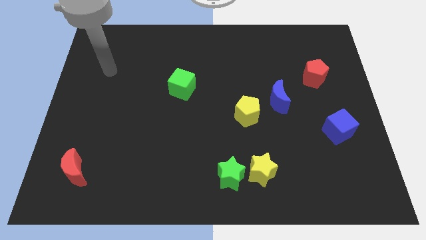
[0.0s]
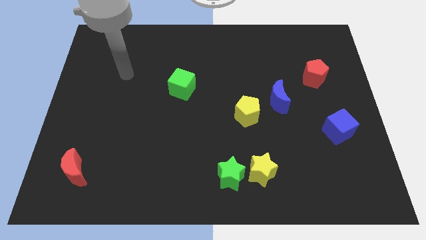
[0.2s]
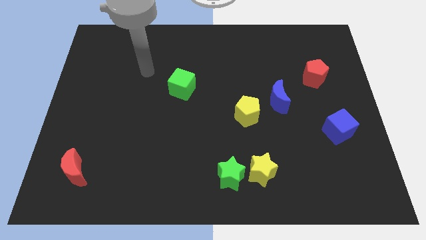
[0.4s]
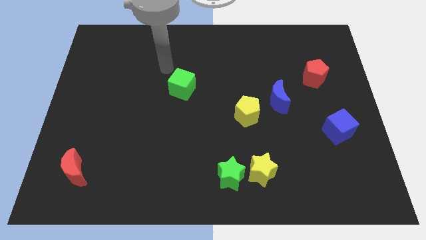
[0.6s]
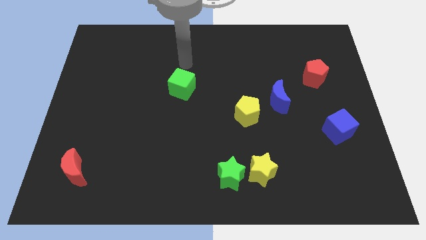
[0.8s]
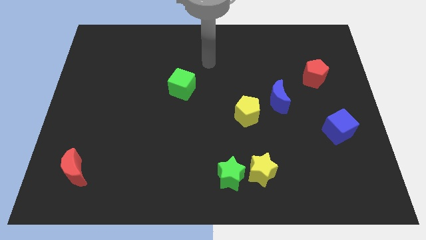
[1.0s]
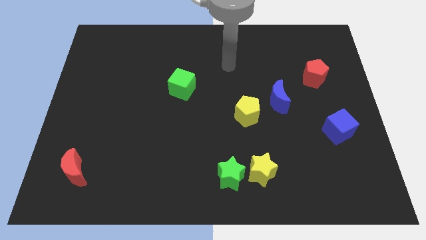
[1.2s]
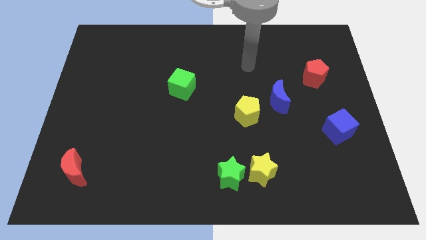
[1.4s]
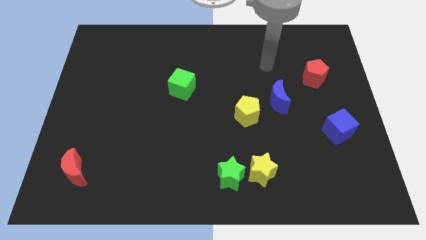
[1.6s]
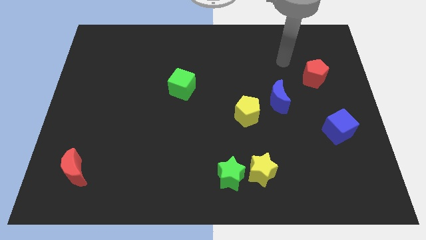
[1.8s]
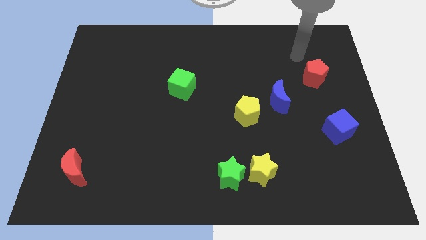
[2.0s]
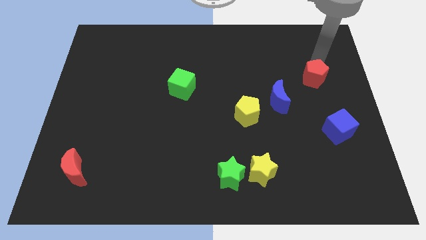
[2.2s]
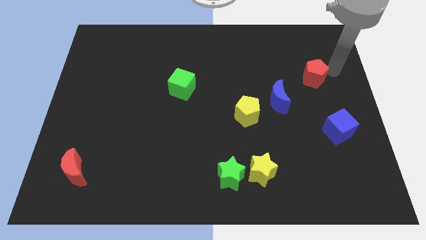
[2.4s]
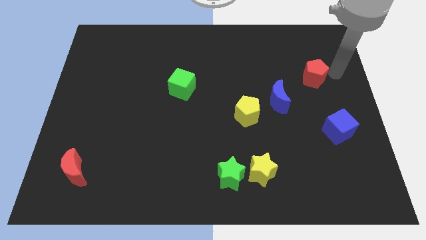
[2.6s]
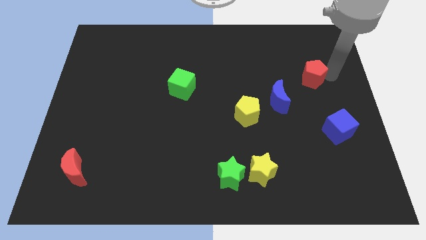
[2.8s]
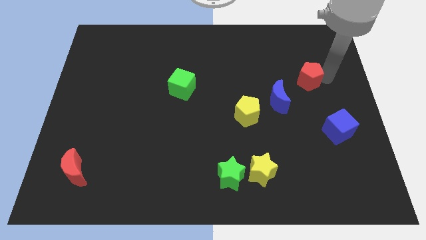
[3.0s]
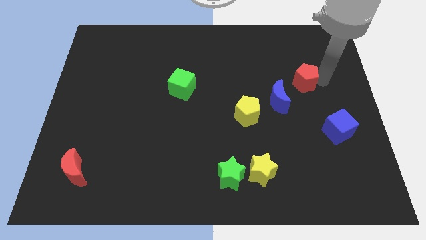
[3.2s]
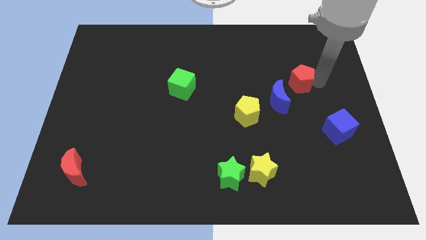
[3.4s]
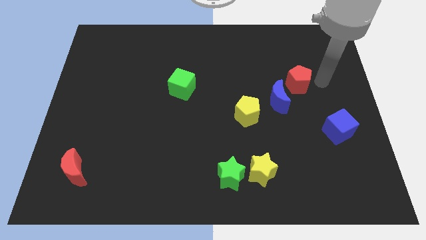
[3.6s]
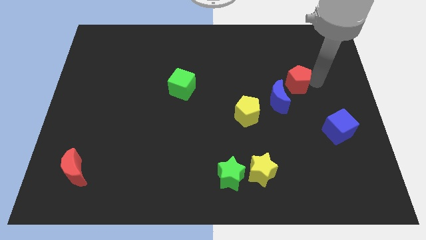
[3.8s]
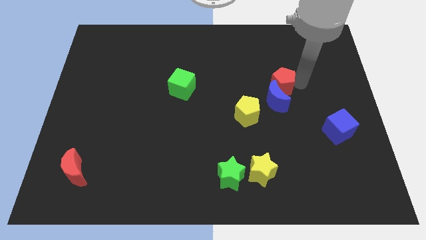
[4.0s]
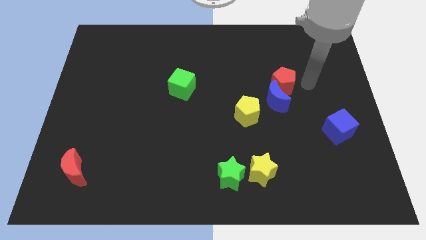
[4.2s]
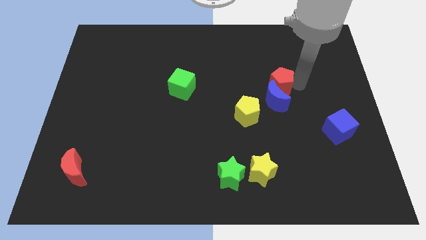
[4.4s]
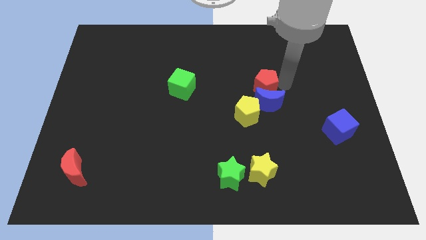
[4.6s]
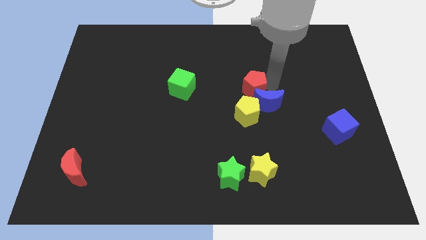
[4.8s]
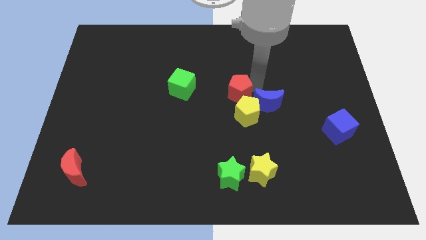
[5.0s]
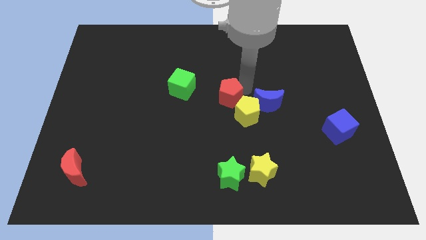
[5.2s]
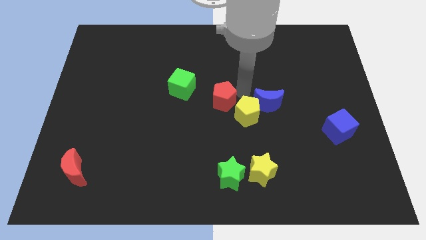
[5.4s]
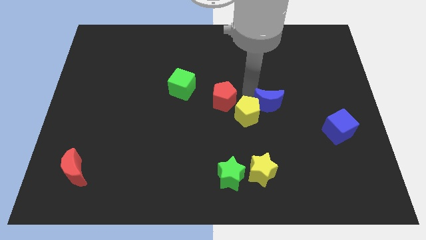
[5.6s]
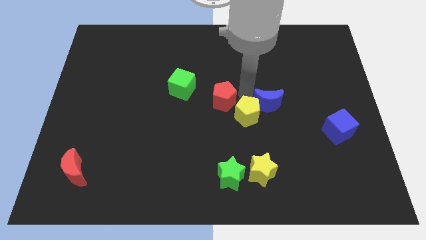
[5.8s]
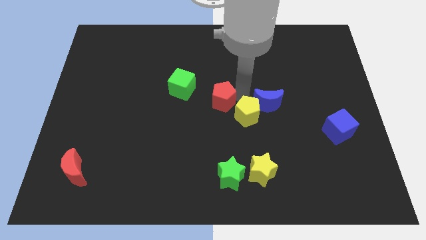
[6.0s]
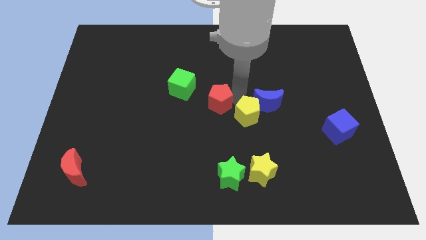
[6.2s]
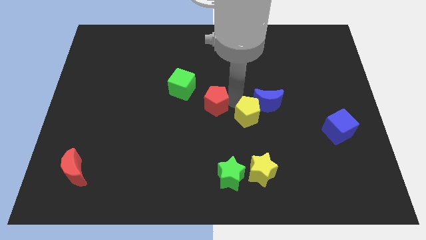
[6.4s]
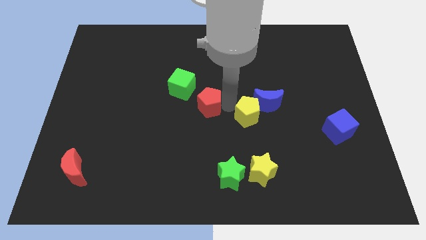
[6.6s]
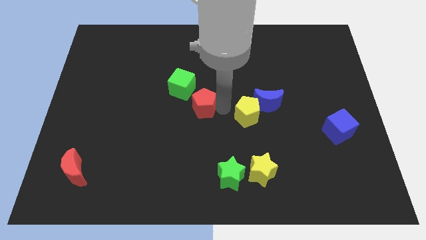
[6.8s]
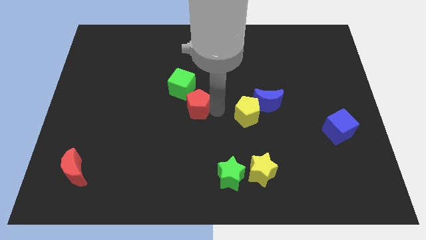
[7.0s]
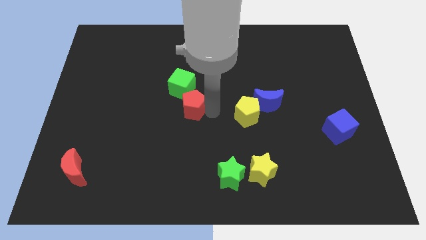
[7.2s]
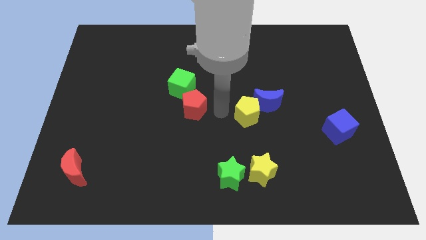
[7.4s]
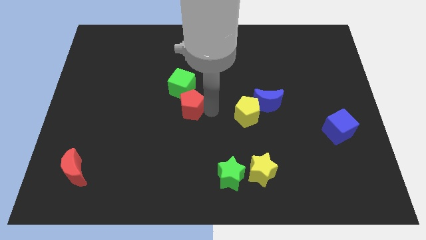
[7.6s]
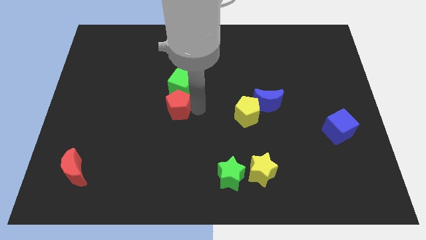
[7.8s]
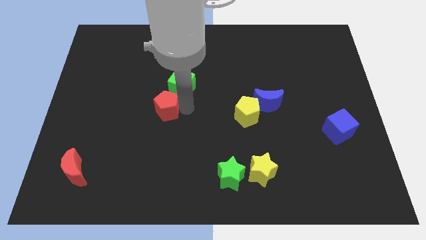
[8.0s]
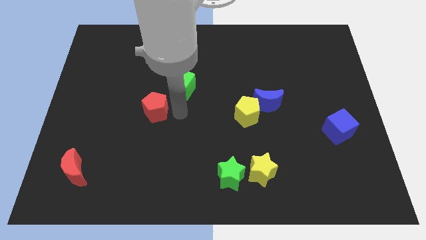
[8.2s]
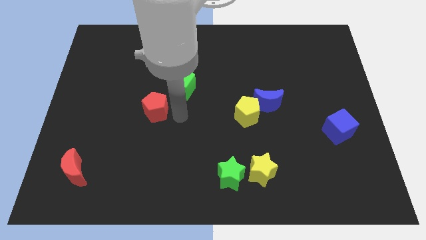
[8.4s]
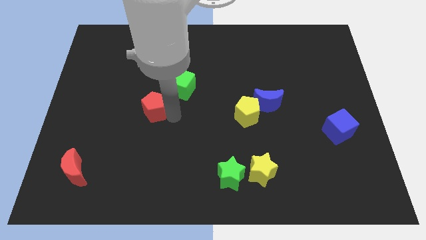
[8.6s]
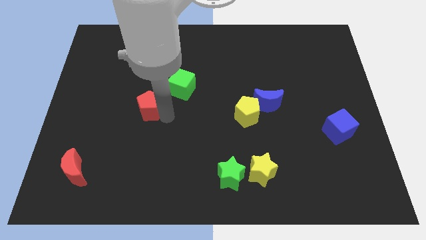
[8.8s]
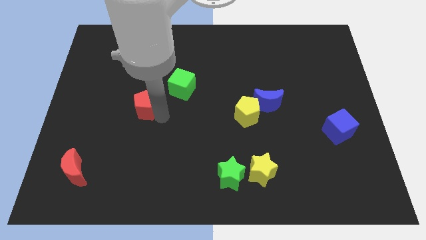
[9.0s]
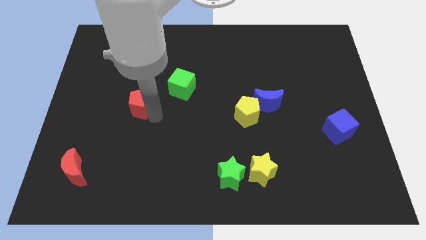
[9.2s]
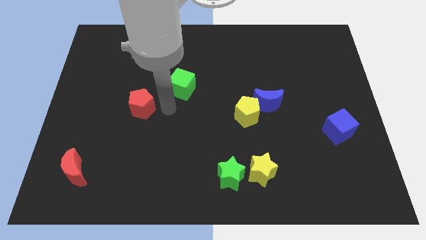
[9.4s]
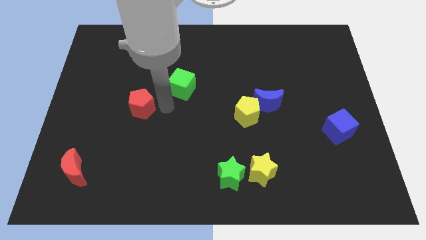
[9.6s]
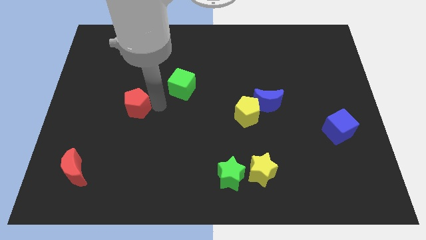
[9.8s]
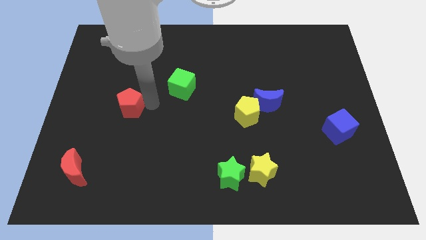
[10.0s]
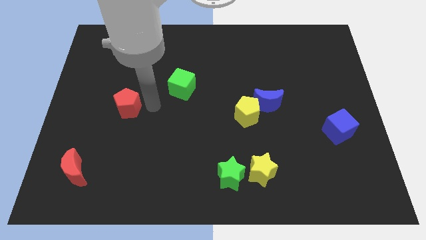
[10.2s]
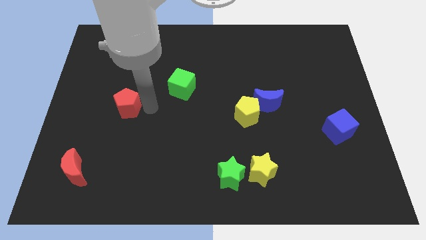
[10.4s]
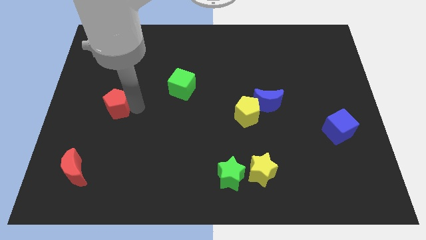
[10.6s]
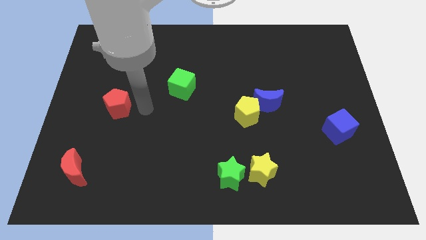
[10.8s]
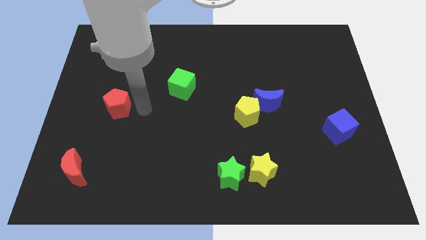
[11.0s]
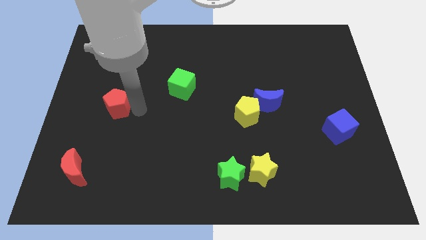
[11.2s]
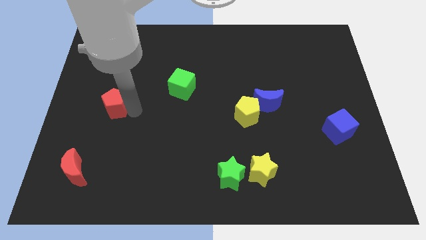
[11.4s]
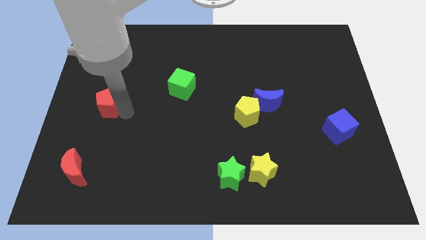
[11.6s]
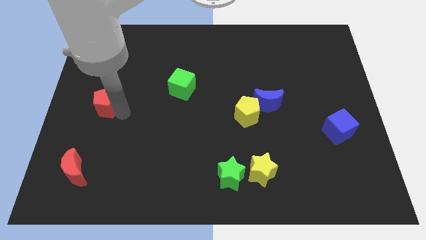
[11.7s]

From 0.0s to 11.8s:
slide the red pentagon to the center left
